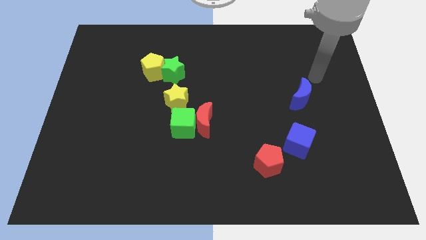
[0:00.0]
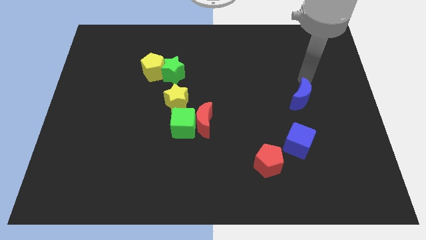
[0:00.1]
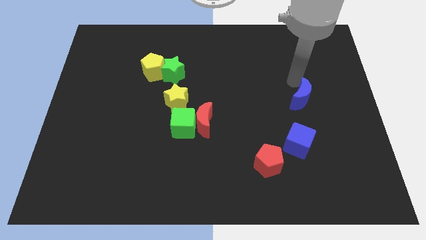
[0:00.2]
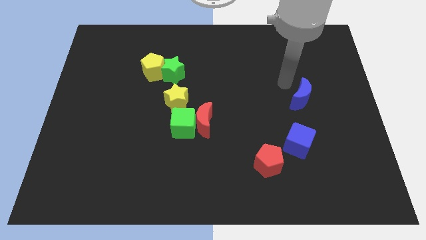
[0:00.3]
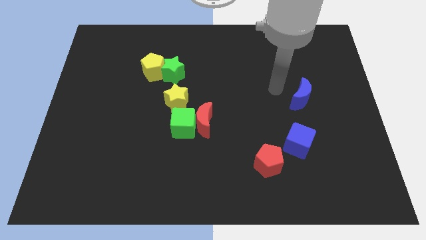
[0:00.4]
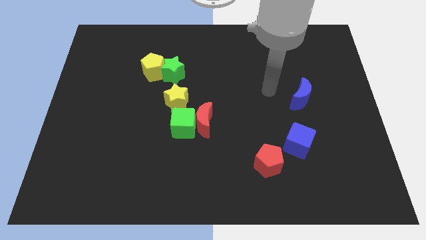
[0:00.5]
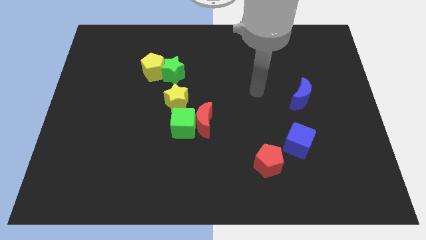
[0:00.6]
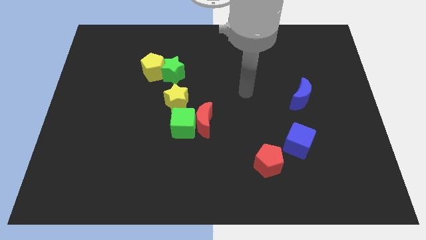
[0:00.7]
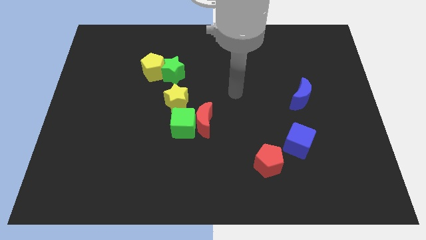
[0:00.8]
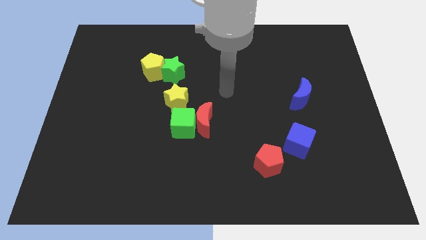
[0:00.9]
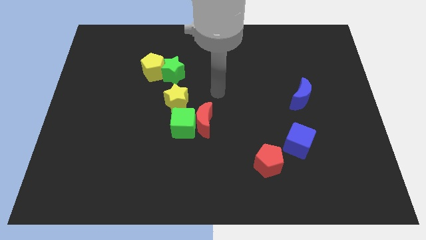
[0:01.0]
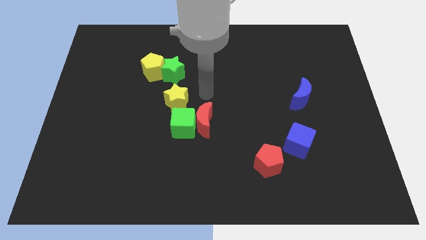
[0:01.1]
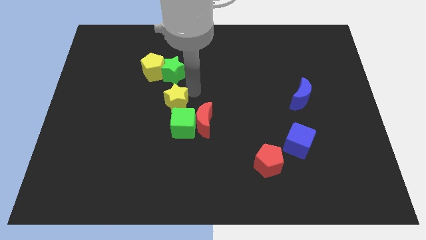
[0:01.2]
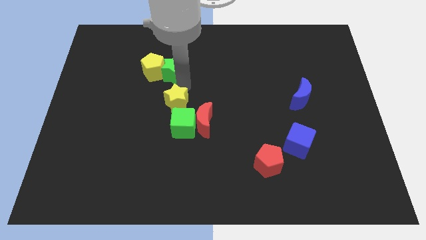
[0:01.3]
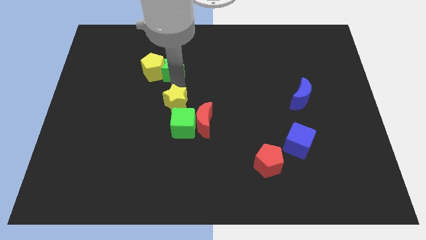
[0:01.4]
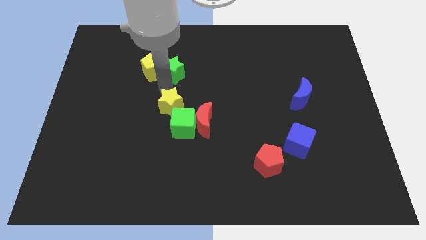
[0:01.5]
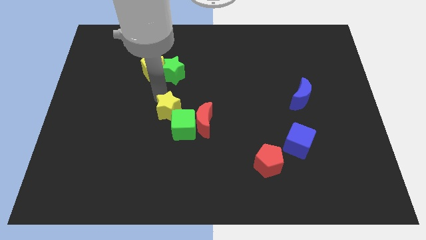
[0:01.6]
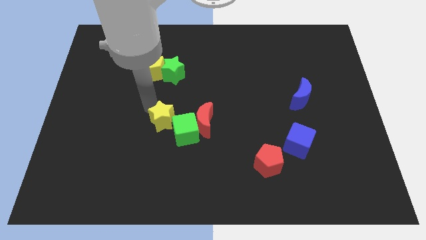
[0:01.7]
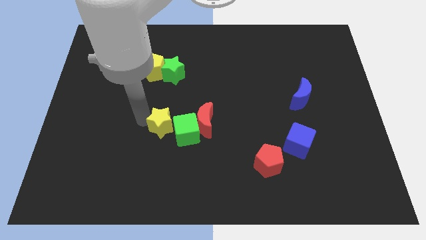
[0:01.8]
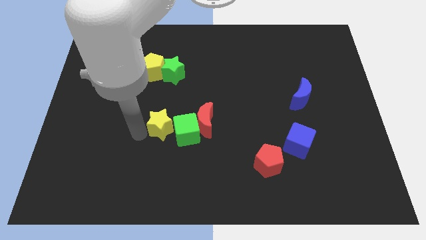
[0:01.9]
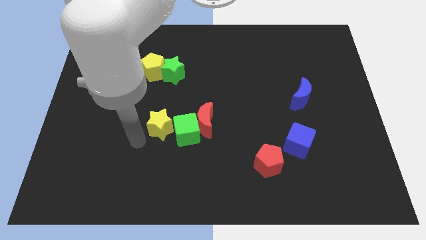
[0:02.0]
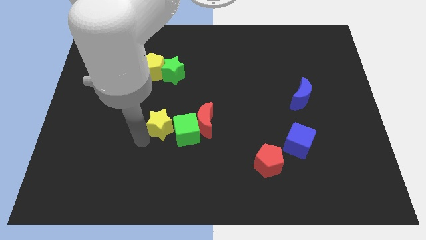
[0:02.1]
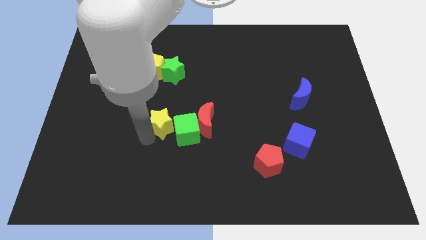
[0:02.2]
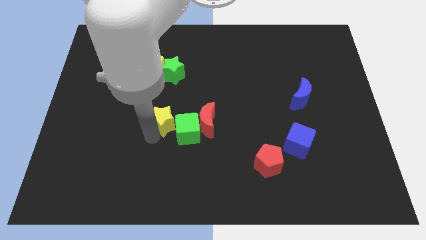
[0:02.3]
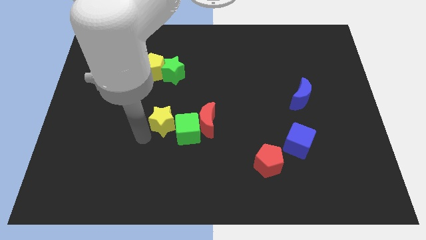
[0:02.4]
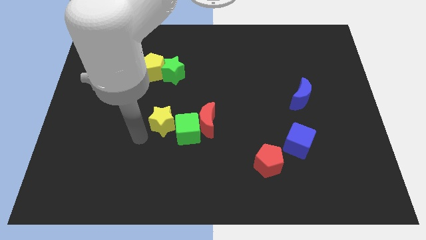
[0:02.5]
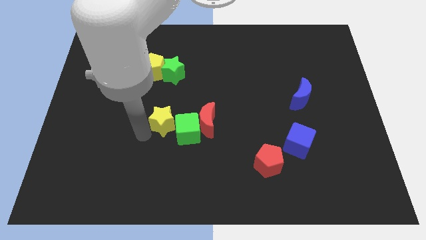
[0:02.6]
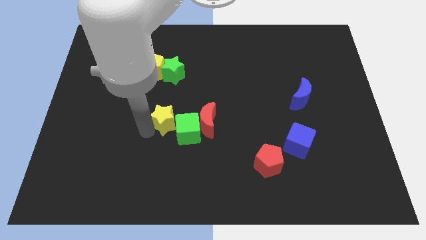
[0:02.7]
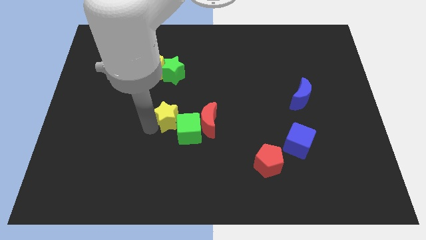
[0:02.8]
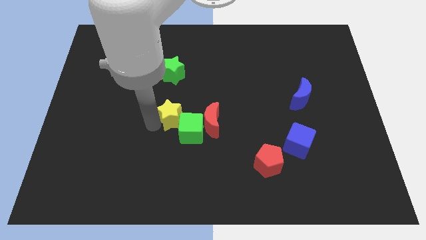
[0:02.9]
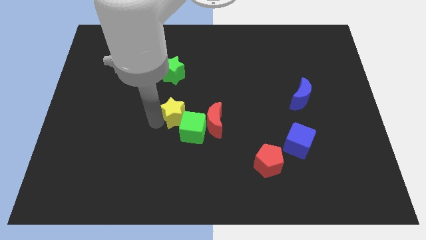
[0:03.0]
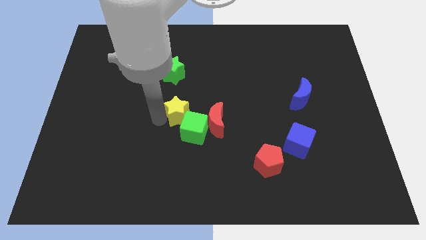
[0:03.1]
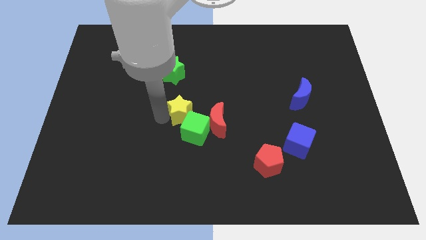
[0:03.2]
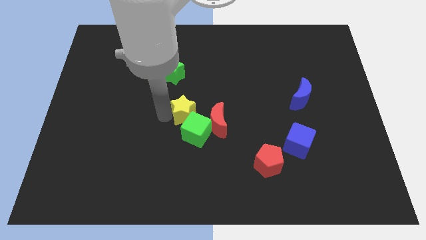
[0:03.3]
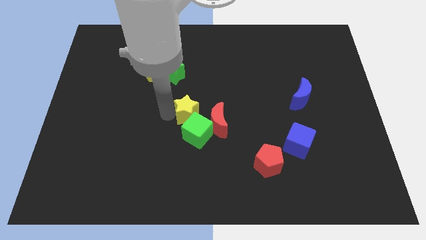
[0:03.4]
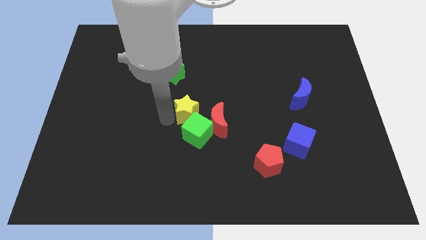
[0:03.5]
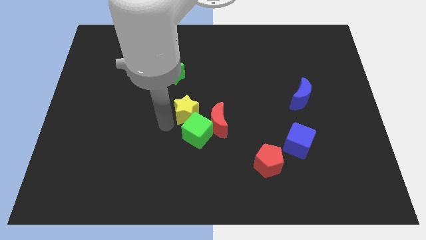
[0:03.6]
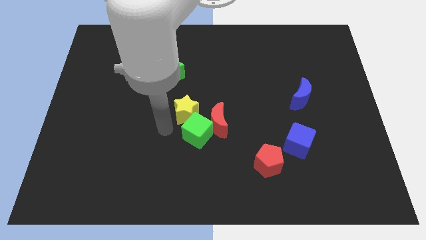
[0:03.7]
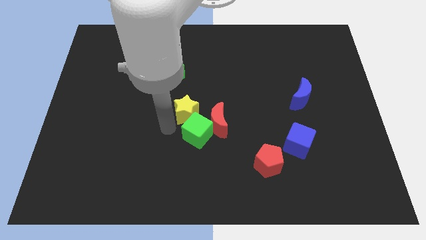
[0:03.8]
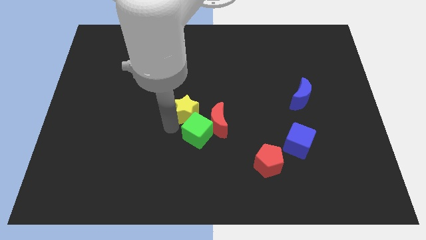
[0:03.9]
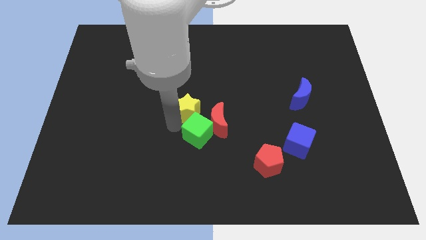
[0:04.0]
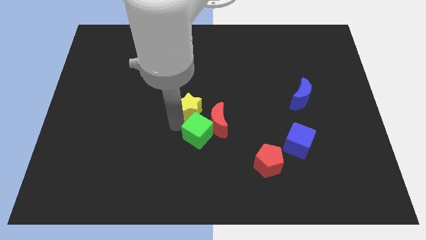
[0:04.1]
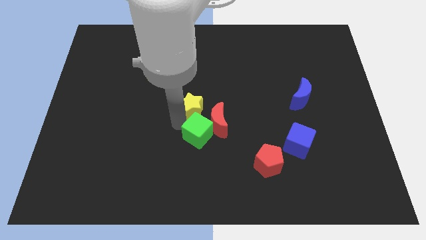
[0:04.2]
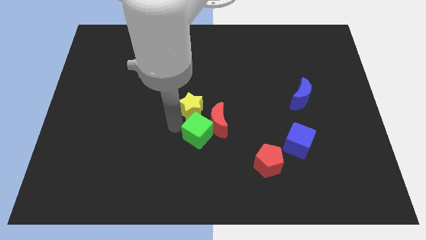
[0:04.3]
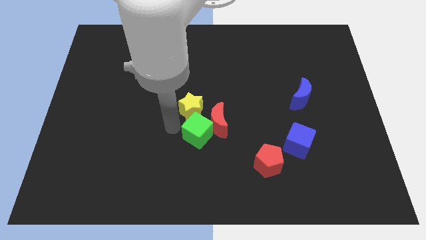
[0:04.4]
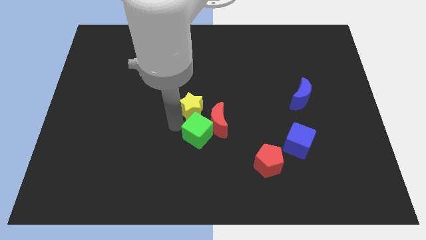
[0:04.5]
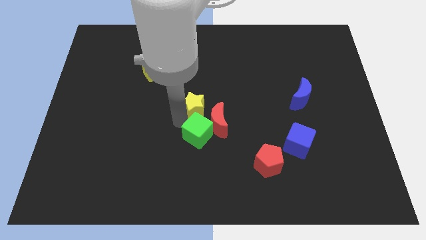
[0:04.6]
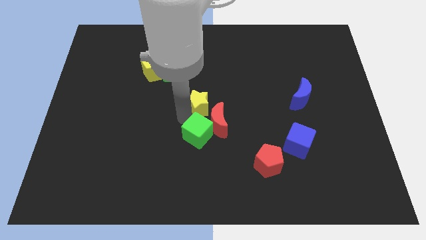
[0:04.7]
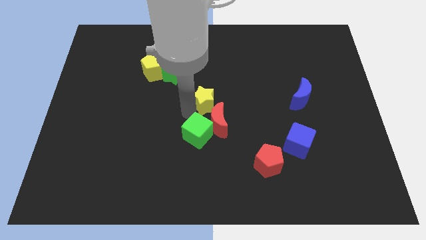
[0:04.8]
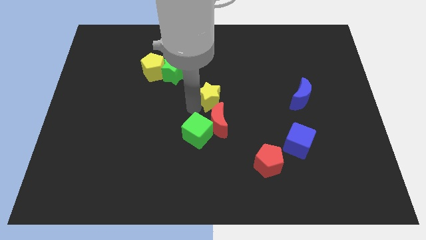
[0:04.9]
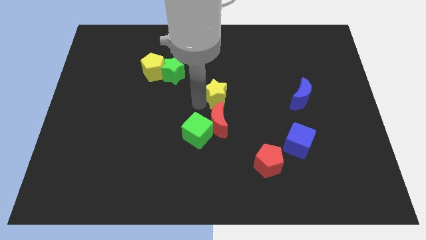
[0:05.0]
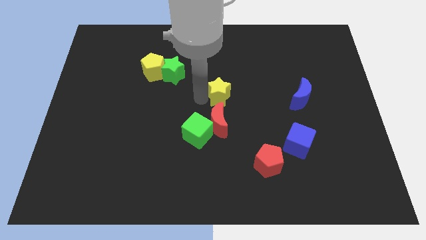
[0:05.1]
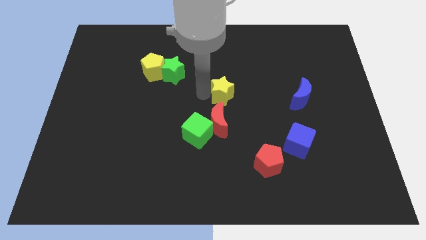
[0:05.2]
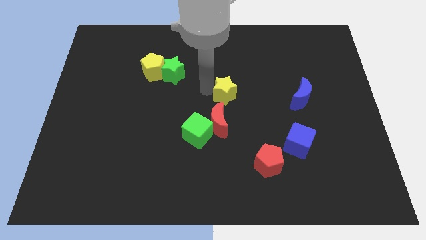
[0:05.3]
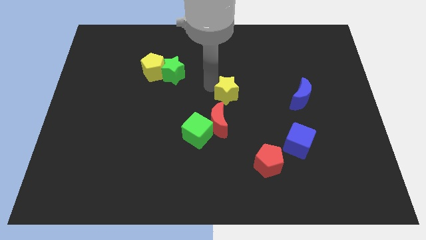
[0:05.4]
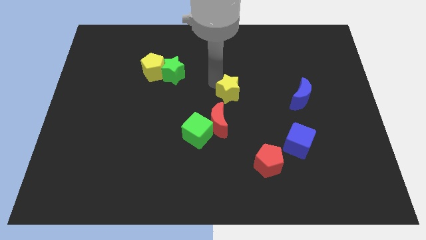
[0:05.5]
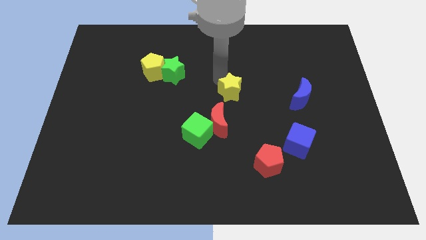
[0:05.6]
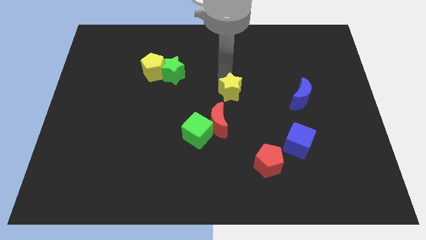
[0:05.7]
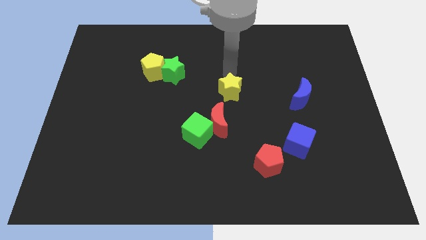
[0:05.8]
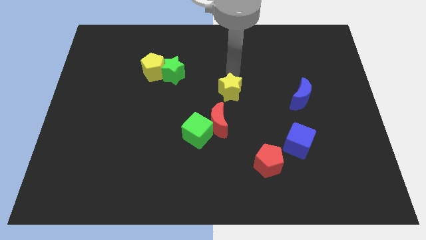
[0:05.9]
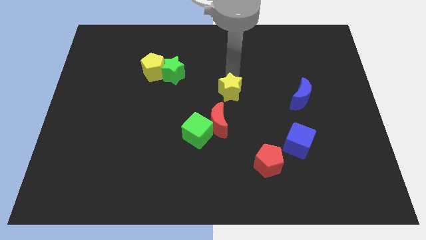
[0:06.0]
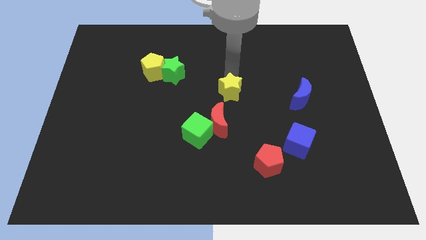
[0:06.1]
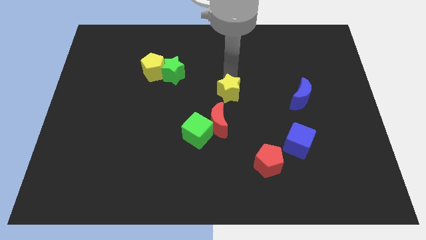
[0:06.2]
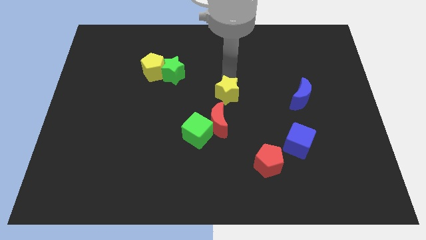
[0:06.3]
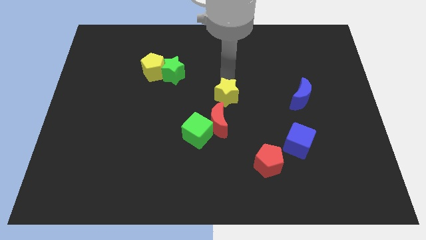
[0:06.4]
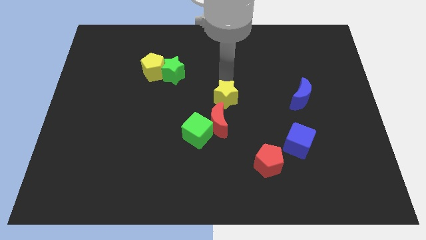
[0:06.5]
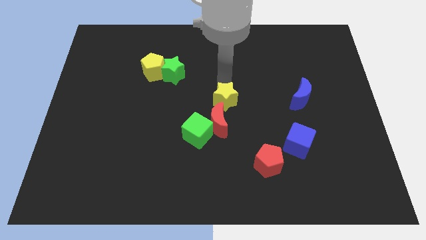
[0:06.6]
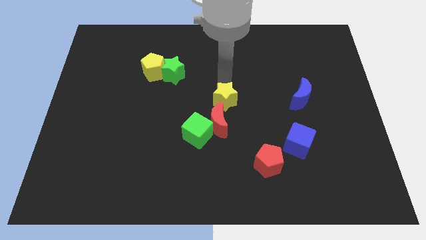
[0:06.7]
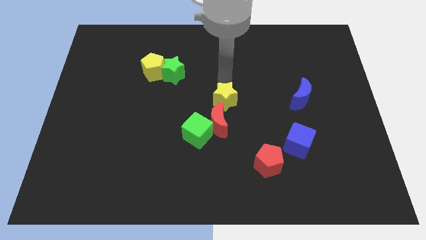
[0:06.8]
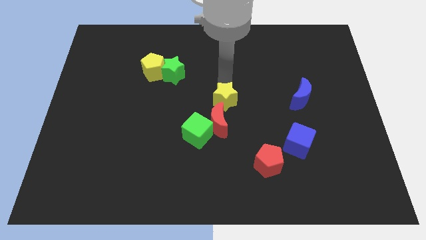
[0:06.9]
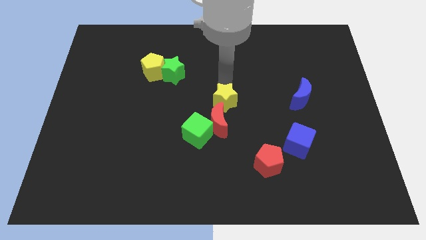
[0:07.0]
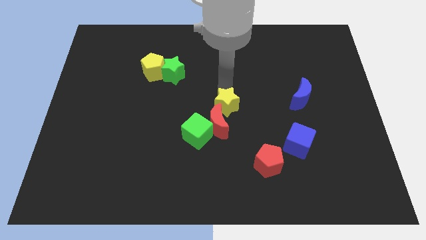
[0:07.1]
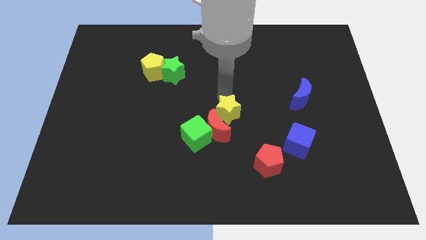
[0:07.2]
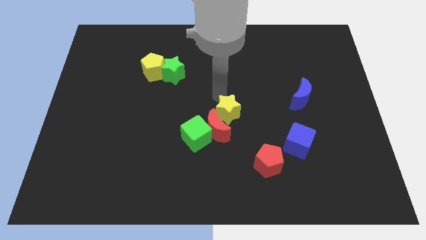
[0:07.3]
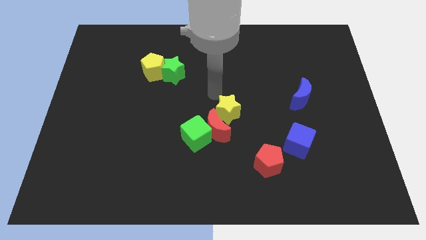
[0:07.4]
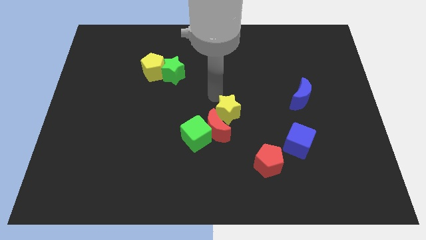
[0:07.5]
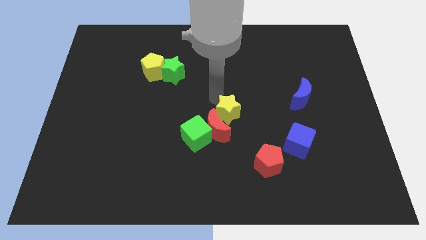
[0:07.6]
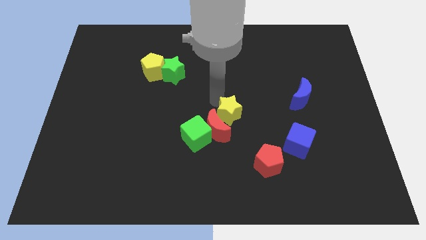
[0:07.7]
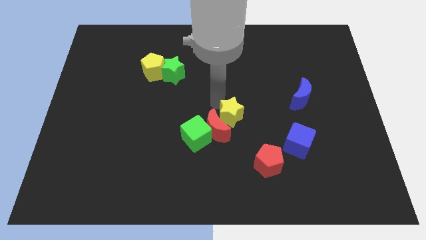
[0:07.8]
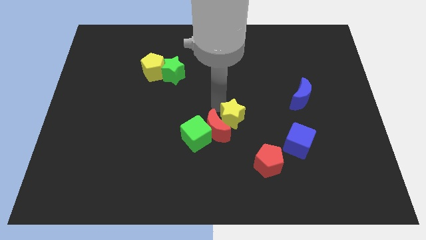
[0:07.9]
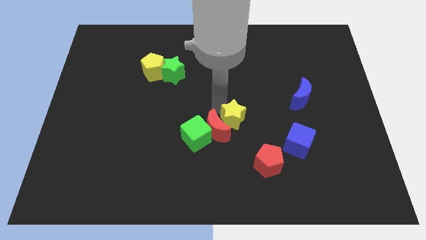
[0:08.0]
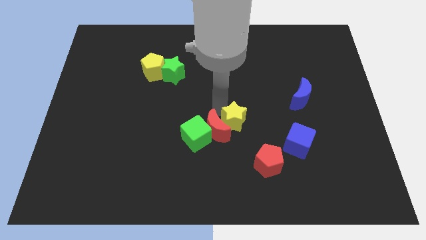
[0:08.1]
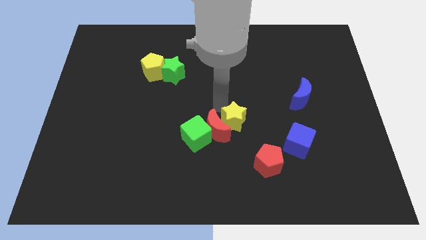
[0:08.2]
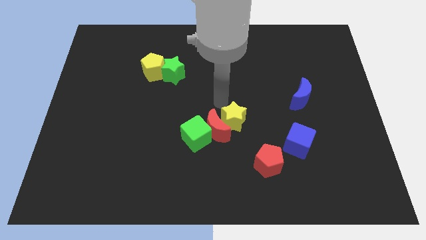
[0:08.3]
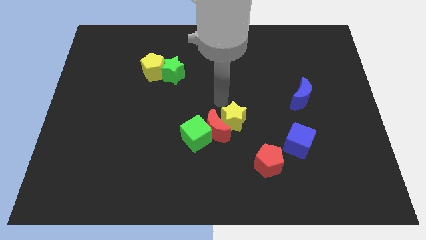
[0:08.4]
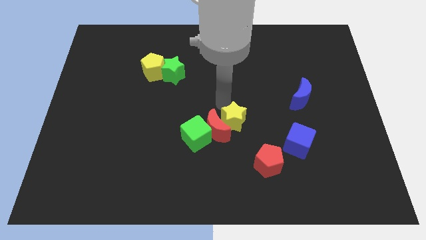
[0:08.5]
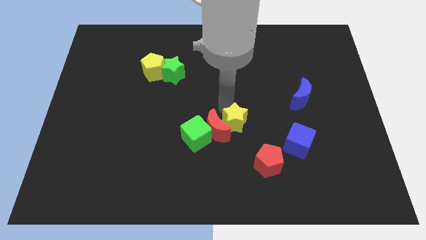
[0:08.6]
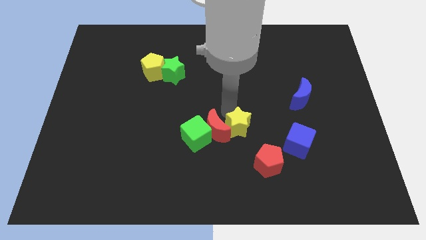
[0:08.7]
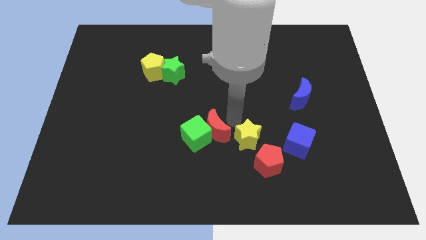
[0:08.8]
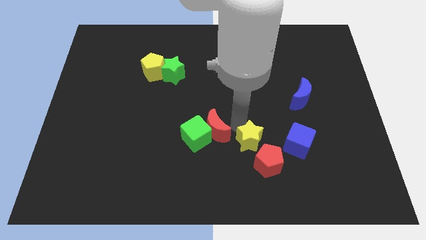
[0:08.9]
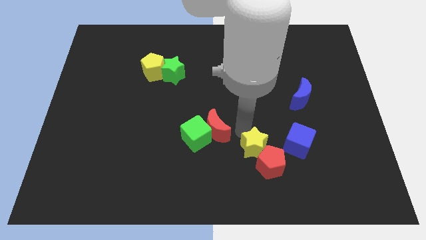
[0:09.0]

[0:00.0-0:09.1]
put the yellow star next to the red pentagon
